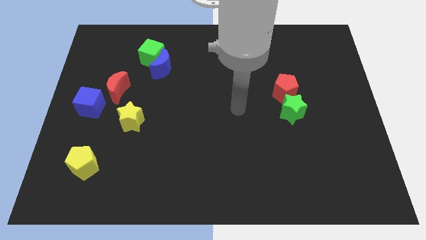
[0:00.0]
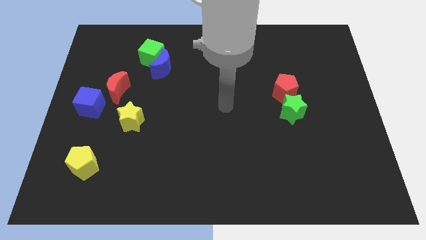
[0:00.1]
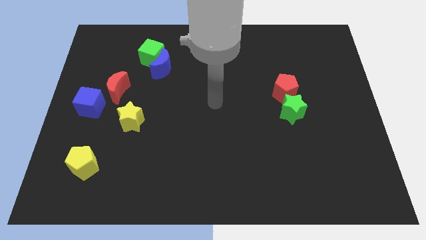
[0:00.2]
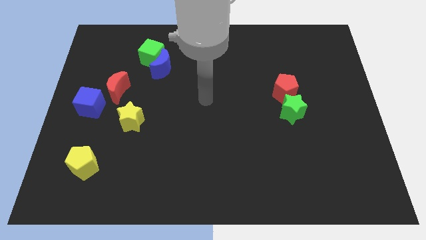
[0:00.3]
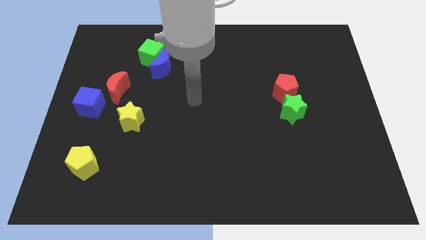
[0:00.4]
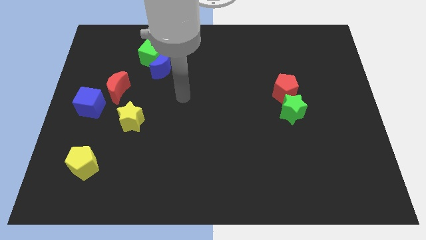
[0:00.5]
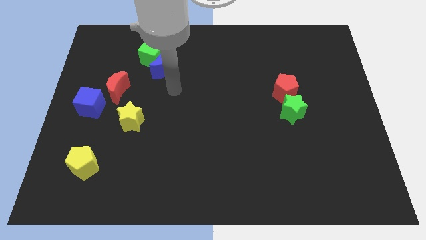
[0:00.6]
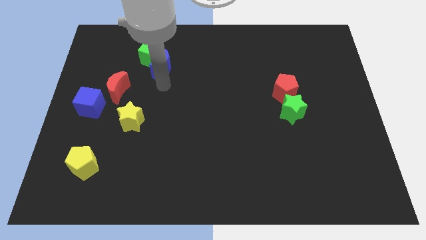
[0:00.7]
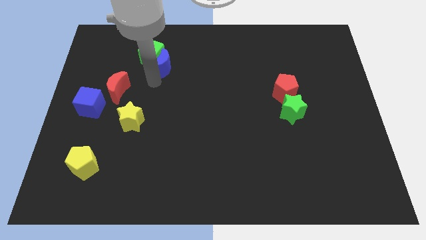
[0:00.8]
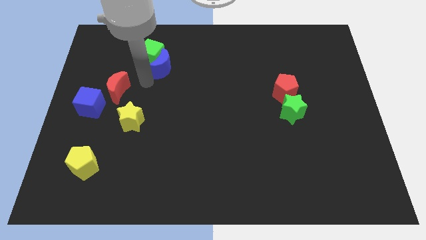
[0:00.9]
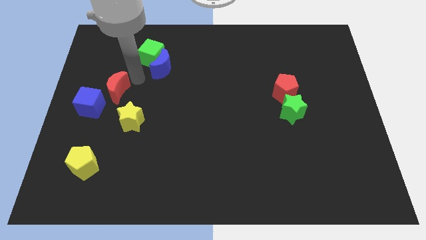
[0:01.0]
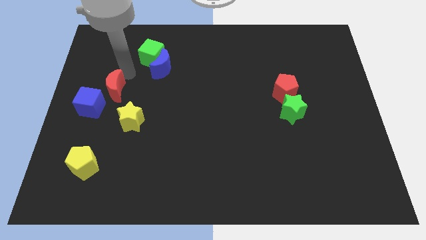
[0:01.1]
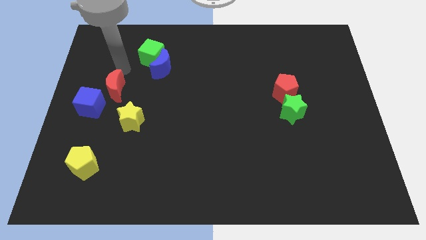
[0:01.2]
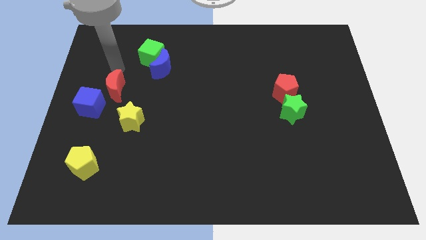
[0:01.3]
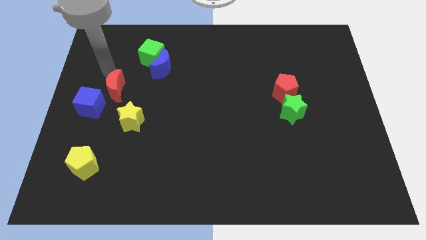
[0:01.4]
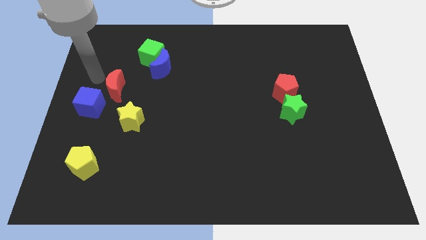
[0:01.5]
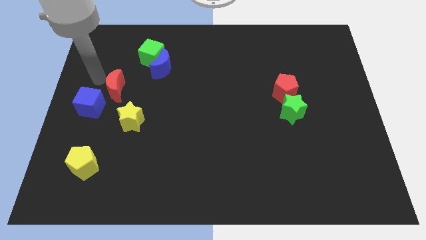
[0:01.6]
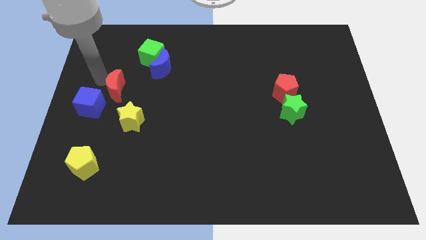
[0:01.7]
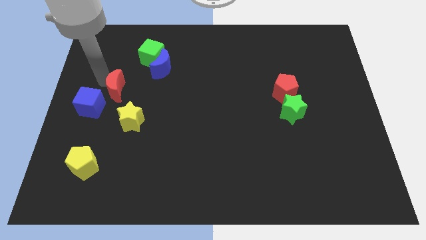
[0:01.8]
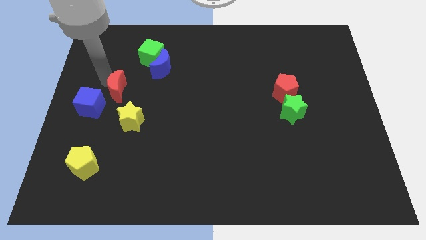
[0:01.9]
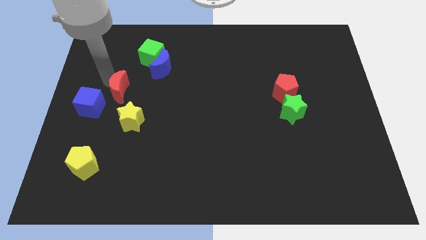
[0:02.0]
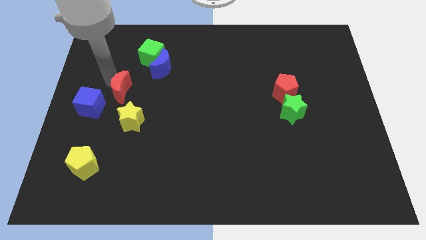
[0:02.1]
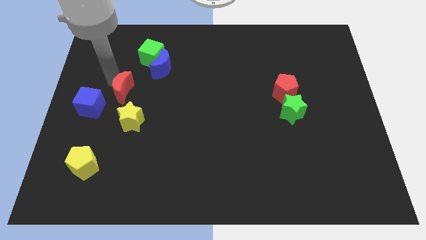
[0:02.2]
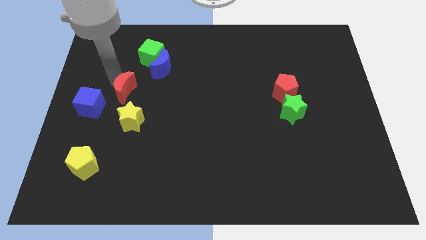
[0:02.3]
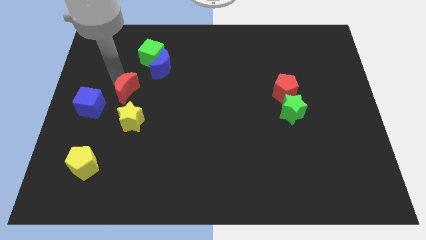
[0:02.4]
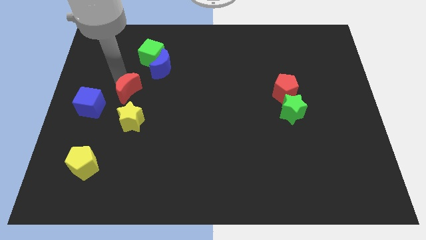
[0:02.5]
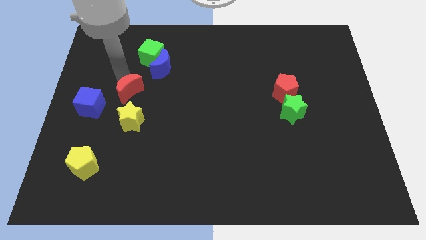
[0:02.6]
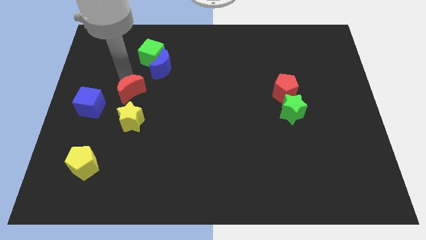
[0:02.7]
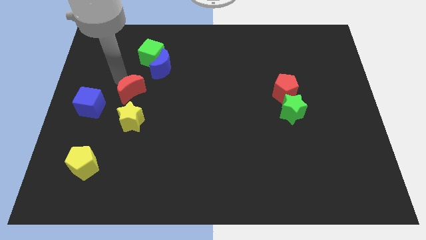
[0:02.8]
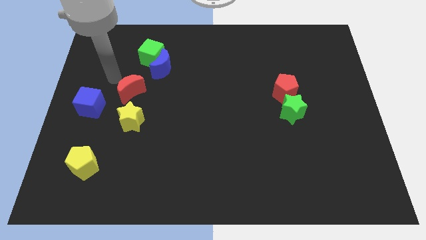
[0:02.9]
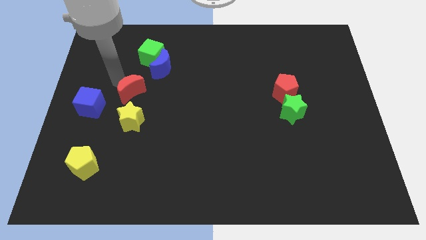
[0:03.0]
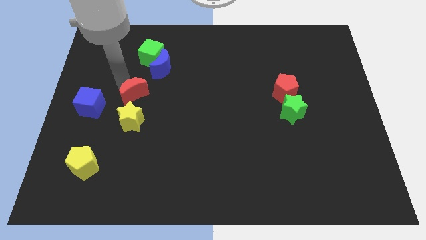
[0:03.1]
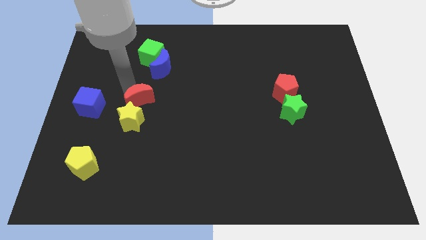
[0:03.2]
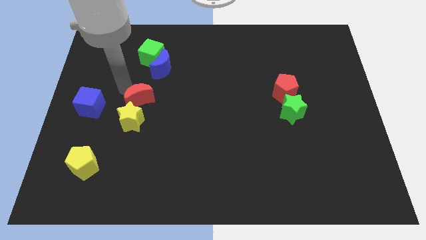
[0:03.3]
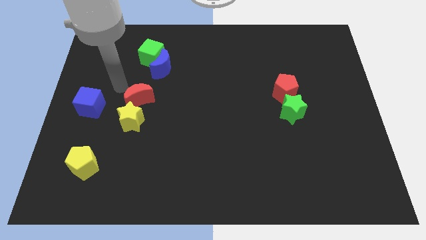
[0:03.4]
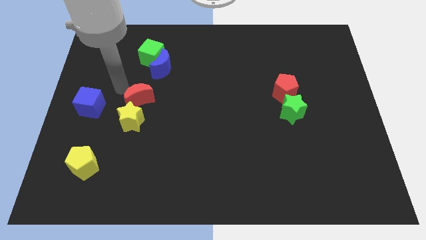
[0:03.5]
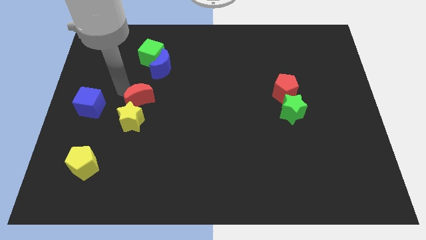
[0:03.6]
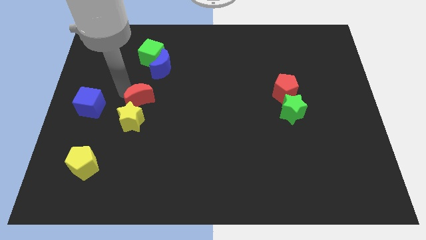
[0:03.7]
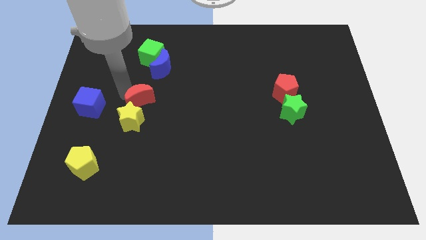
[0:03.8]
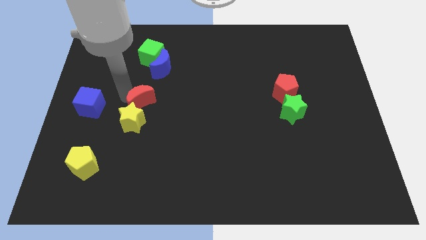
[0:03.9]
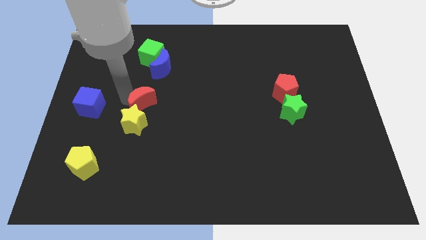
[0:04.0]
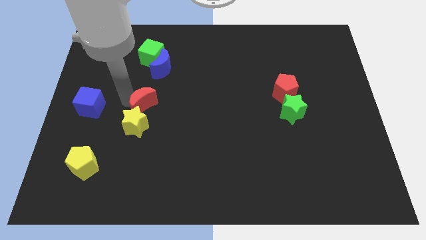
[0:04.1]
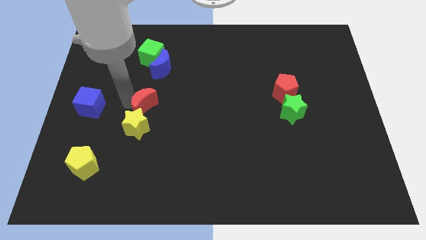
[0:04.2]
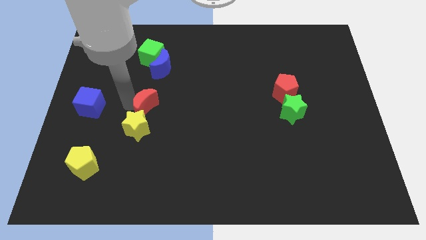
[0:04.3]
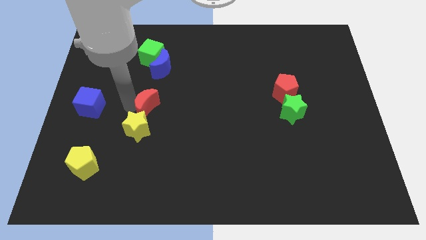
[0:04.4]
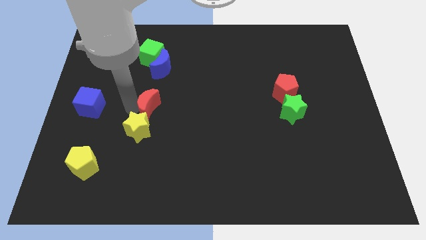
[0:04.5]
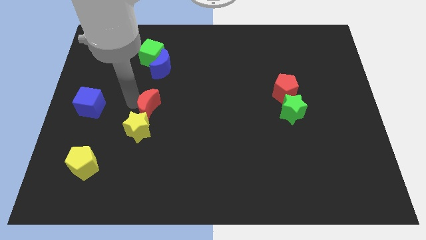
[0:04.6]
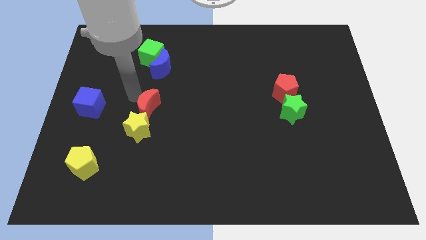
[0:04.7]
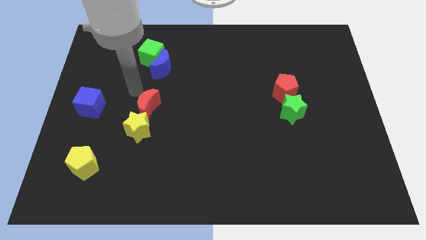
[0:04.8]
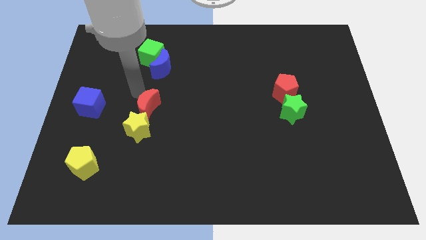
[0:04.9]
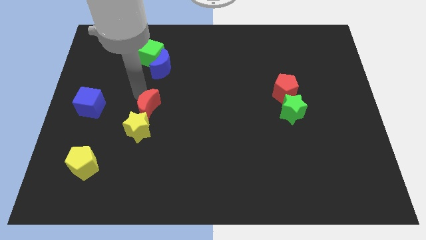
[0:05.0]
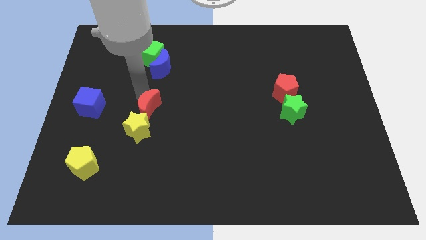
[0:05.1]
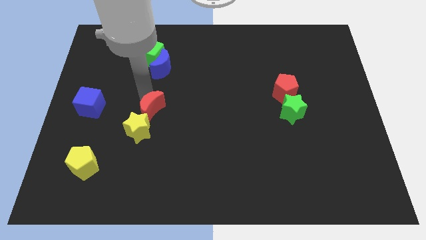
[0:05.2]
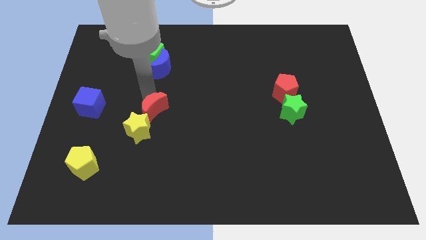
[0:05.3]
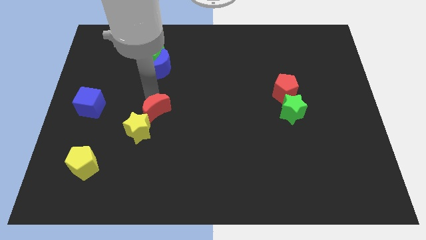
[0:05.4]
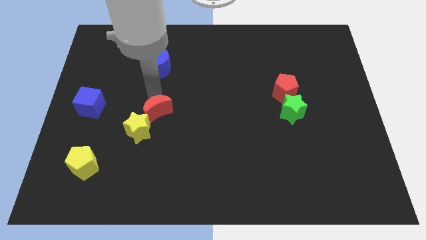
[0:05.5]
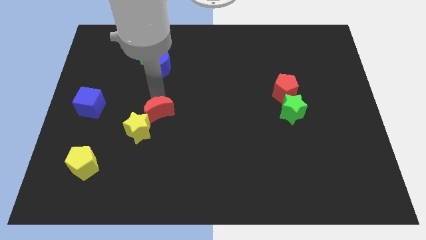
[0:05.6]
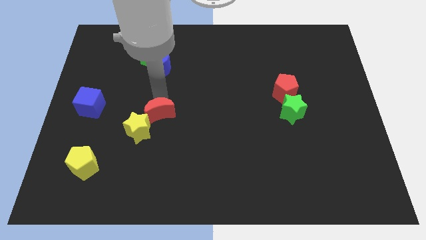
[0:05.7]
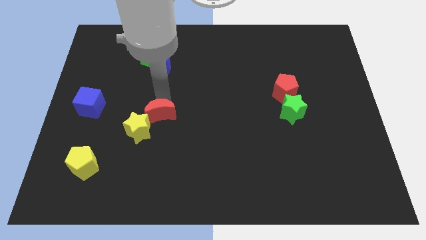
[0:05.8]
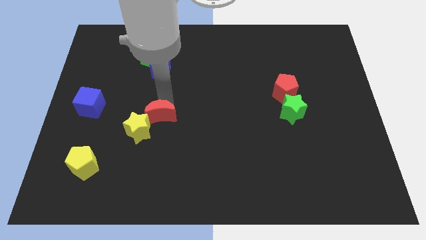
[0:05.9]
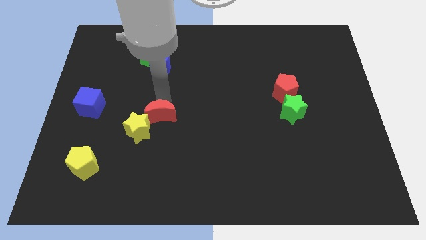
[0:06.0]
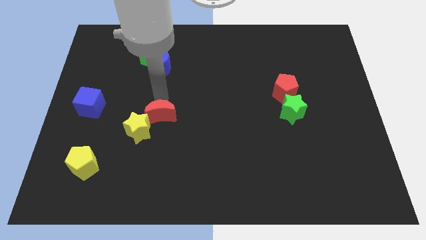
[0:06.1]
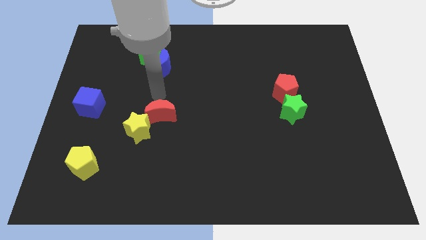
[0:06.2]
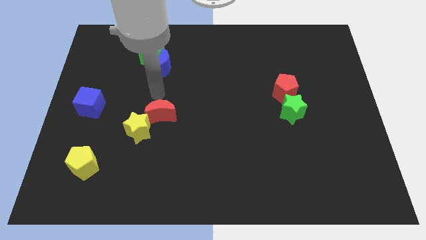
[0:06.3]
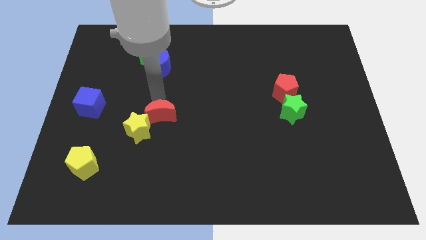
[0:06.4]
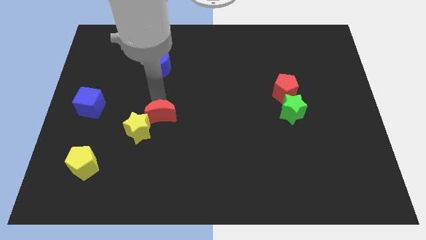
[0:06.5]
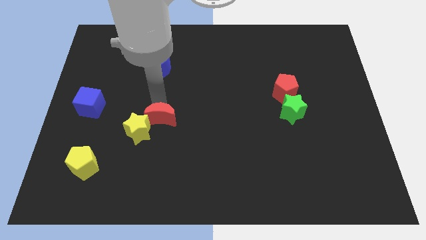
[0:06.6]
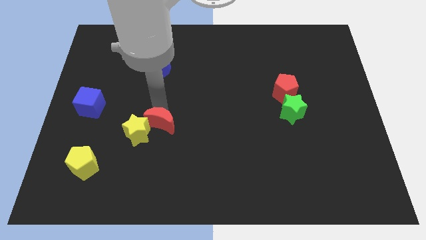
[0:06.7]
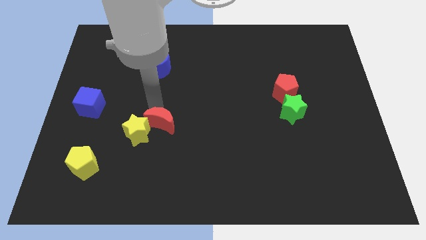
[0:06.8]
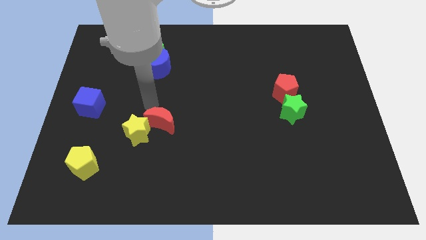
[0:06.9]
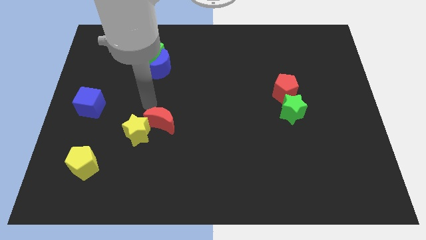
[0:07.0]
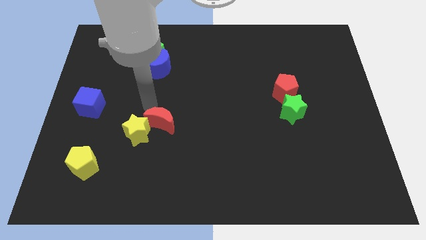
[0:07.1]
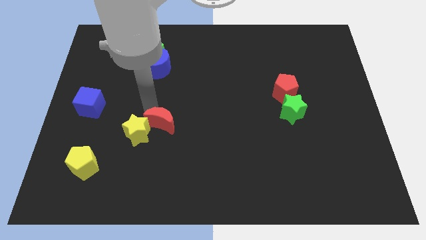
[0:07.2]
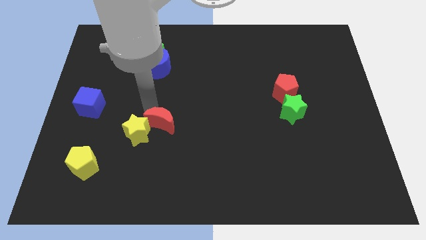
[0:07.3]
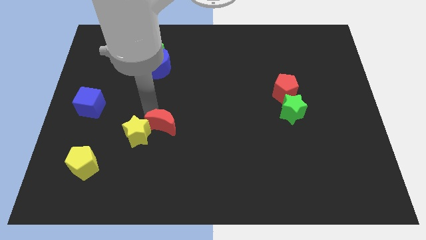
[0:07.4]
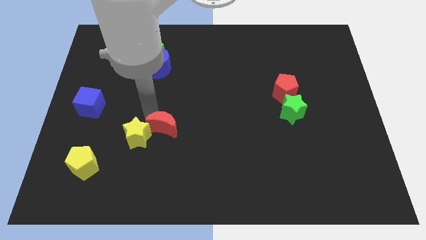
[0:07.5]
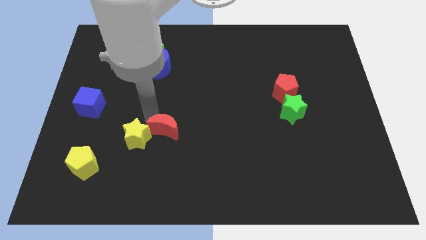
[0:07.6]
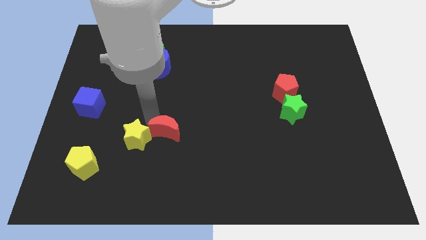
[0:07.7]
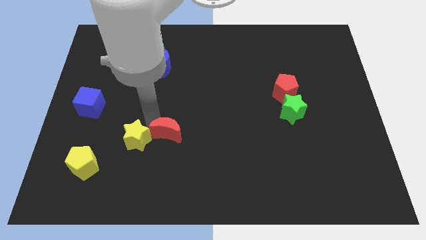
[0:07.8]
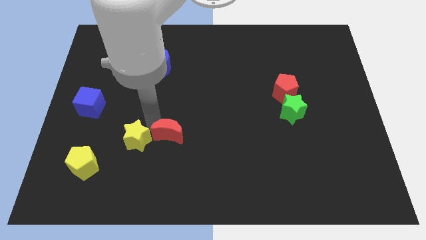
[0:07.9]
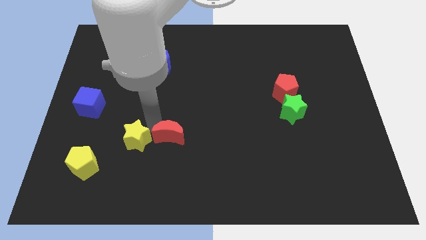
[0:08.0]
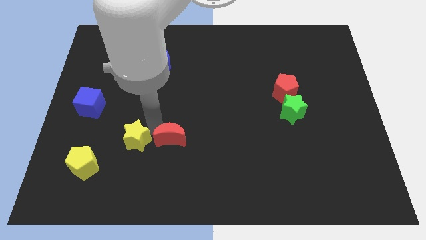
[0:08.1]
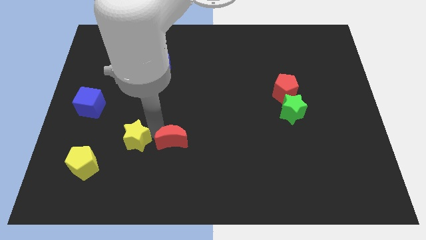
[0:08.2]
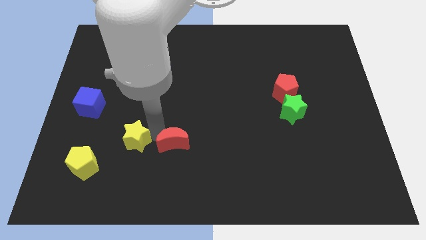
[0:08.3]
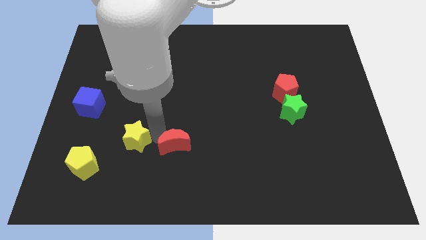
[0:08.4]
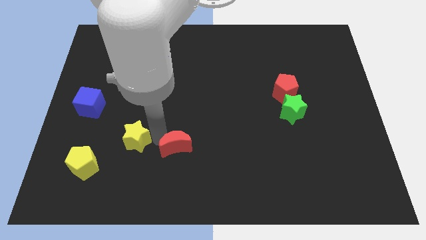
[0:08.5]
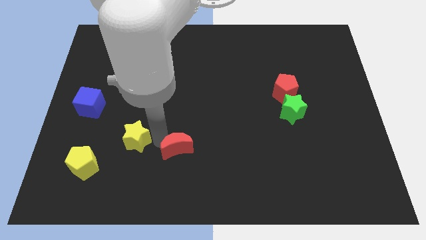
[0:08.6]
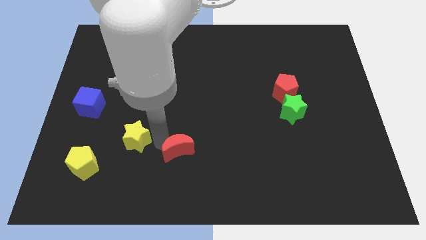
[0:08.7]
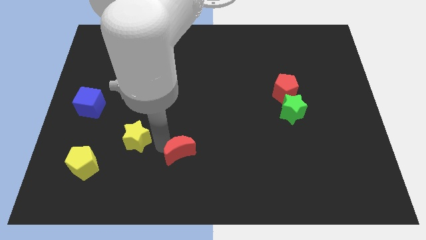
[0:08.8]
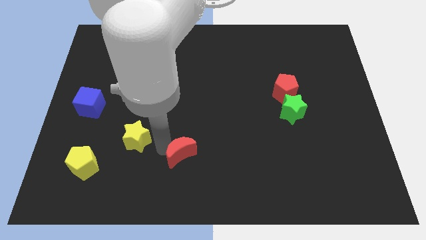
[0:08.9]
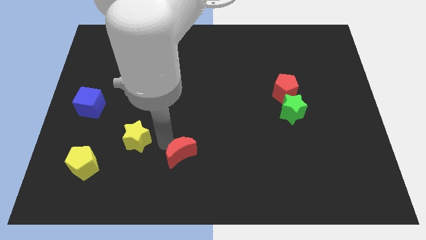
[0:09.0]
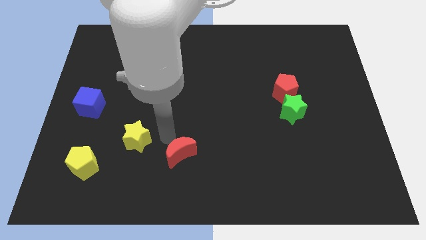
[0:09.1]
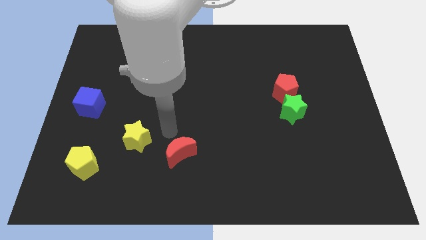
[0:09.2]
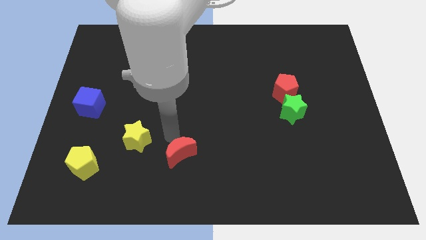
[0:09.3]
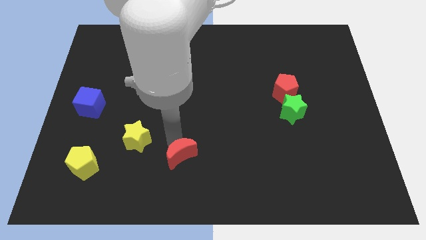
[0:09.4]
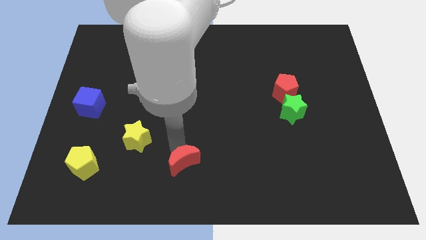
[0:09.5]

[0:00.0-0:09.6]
put the red moon to the bottom side
